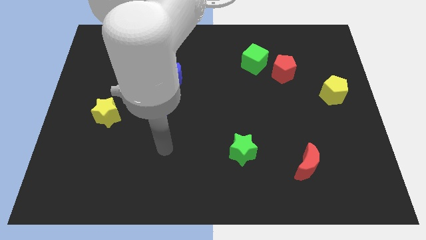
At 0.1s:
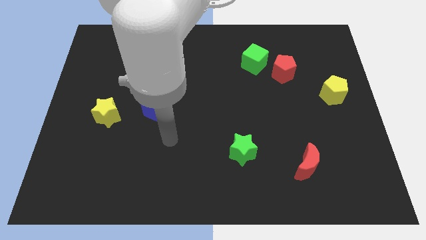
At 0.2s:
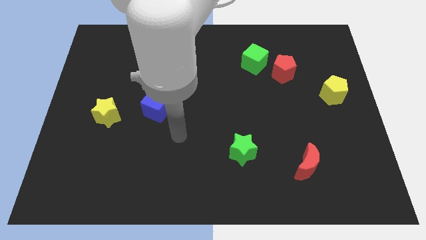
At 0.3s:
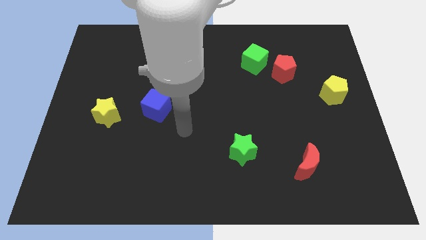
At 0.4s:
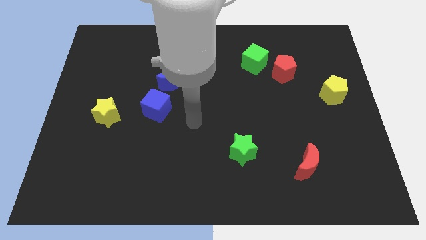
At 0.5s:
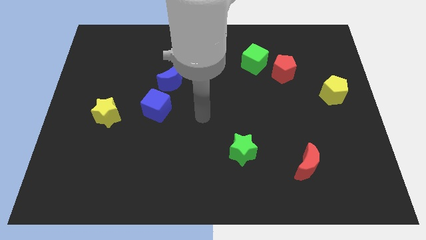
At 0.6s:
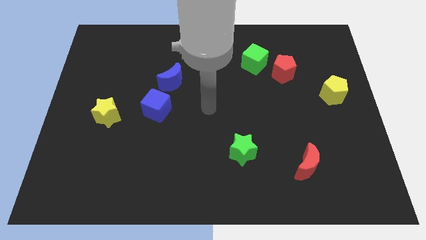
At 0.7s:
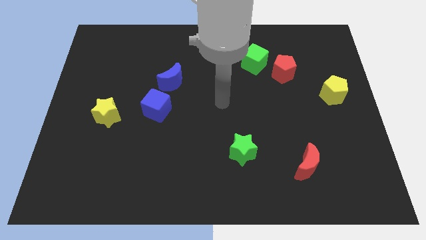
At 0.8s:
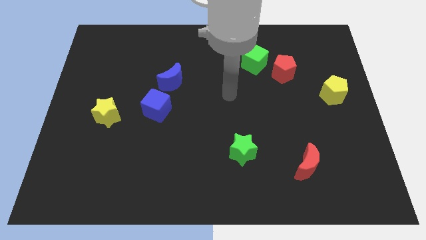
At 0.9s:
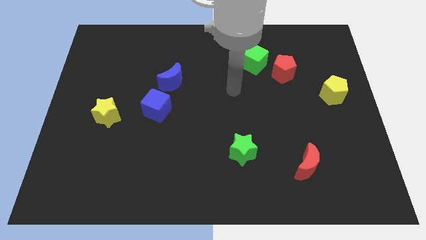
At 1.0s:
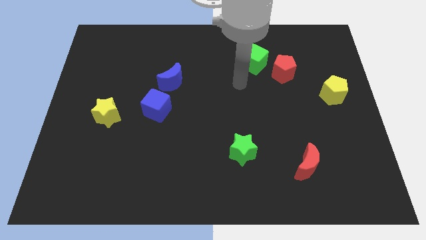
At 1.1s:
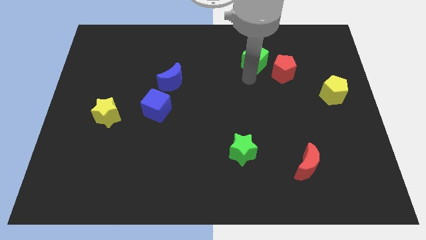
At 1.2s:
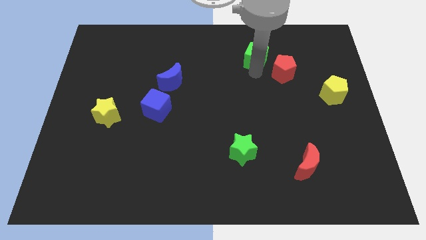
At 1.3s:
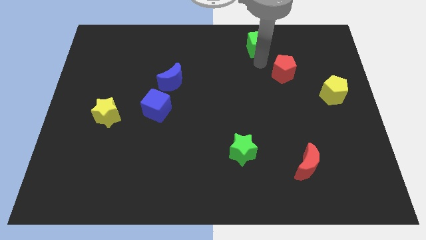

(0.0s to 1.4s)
pull the red pentagon apart from the green cube

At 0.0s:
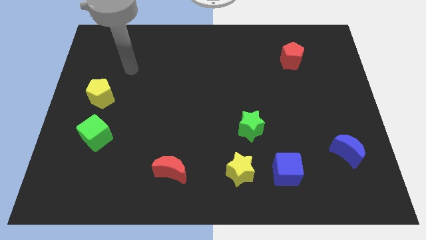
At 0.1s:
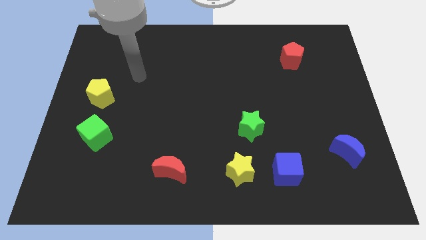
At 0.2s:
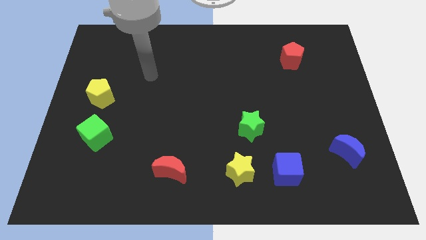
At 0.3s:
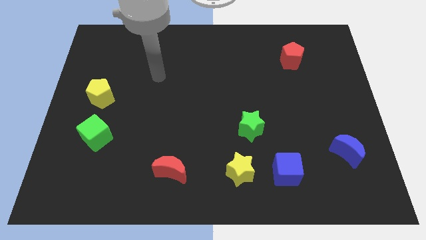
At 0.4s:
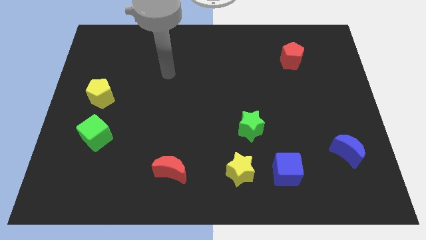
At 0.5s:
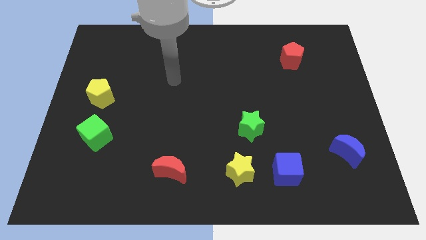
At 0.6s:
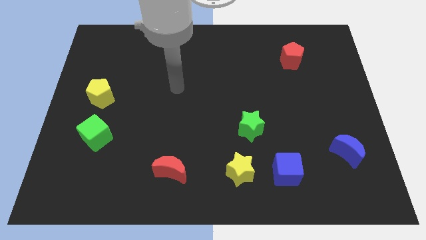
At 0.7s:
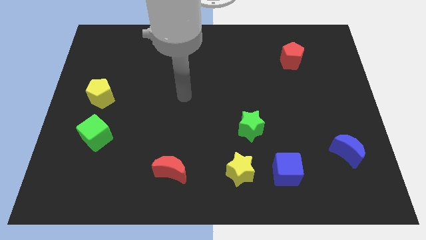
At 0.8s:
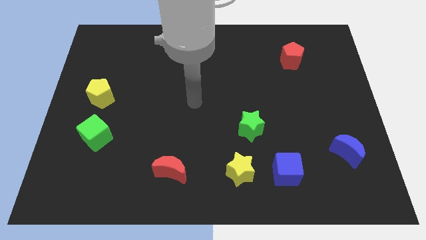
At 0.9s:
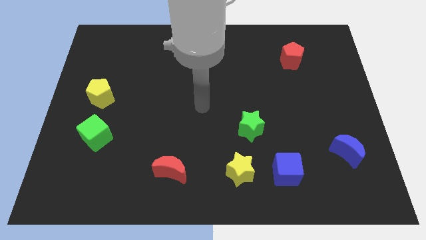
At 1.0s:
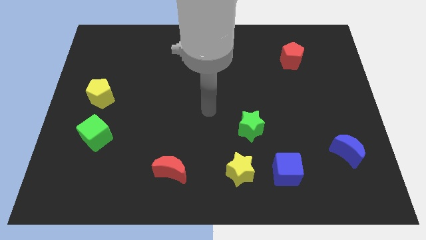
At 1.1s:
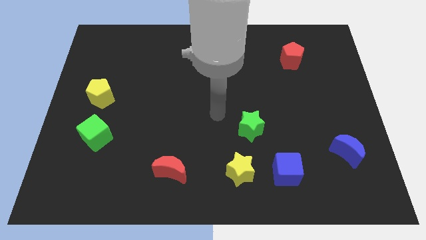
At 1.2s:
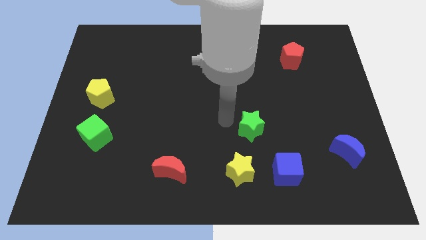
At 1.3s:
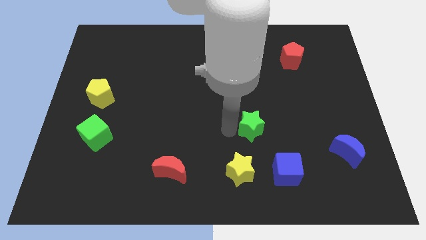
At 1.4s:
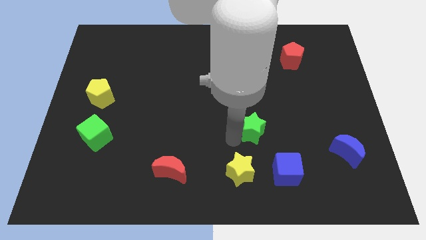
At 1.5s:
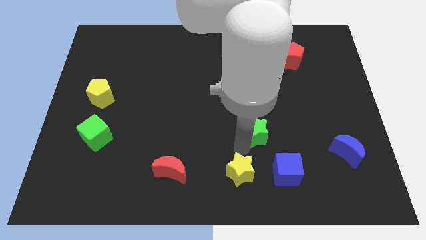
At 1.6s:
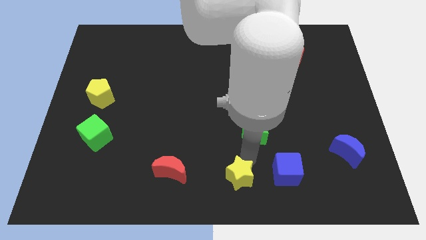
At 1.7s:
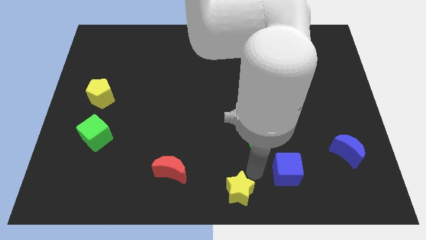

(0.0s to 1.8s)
pull the blue cube apart from the yellow star

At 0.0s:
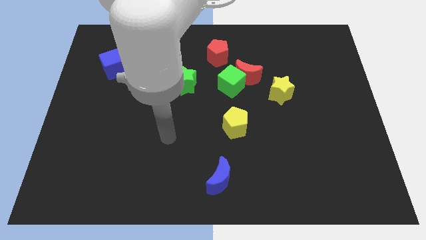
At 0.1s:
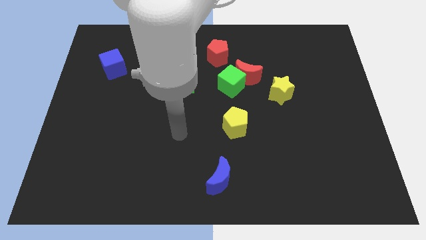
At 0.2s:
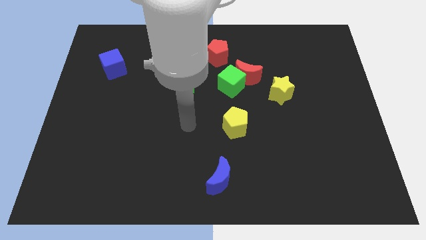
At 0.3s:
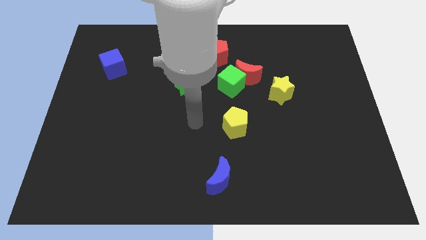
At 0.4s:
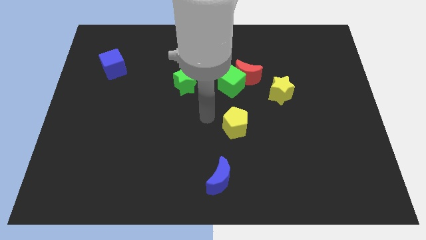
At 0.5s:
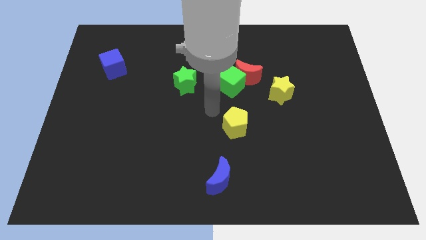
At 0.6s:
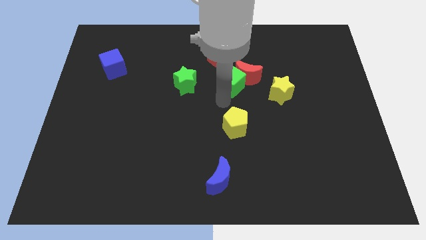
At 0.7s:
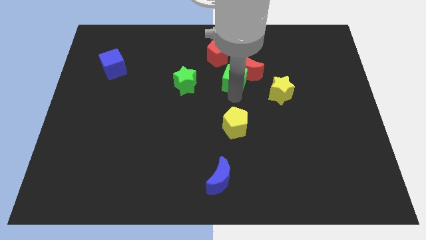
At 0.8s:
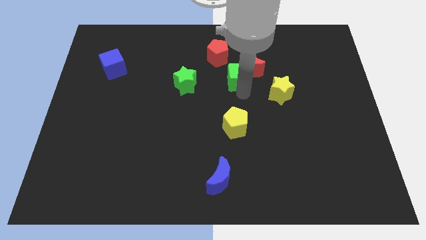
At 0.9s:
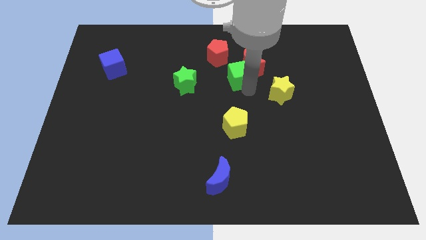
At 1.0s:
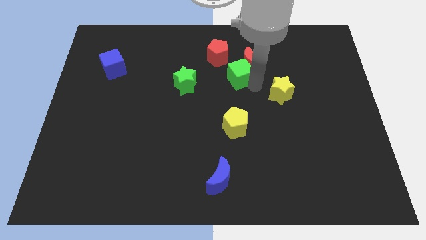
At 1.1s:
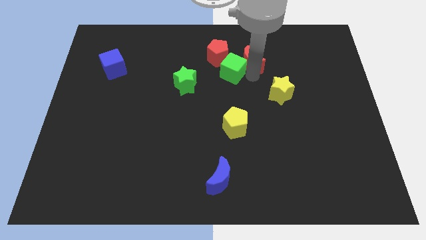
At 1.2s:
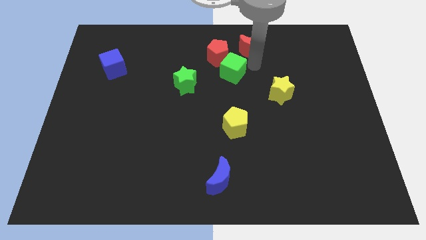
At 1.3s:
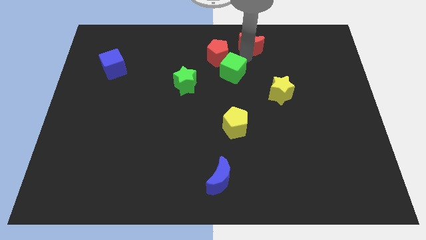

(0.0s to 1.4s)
pull the green cube apart from the red moon

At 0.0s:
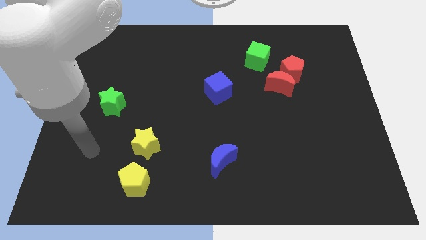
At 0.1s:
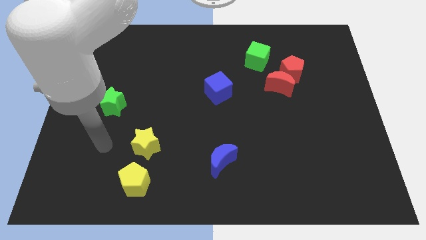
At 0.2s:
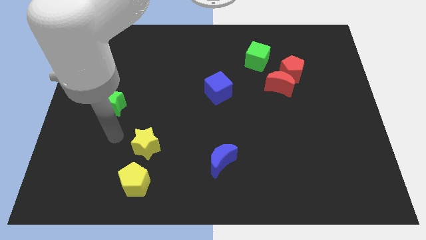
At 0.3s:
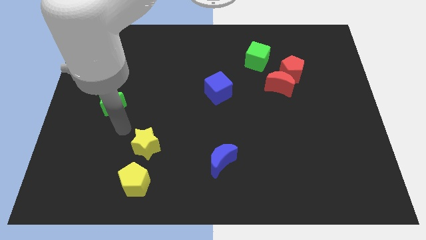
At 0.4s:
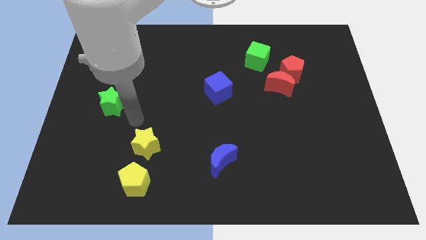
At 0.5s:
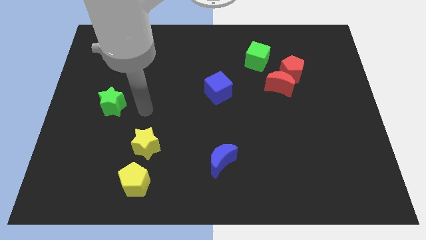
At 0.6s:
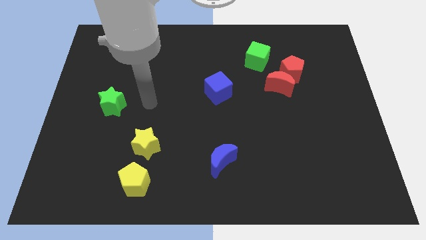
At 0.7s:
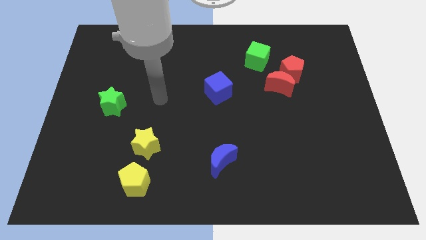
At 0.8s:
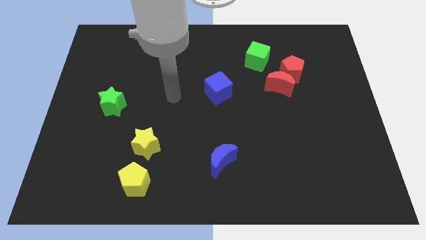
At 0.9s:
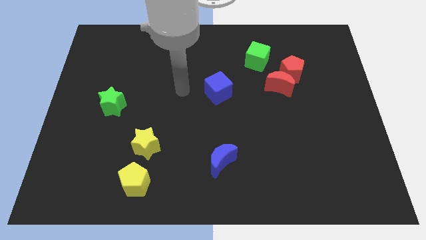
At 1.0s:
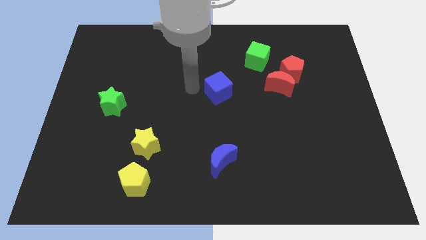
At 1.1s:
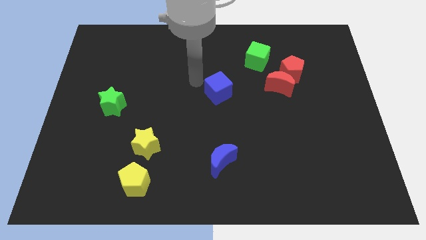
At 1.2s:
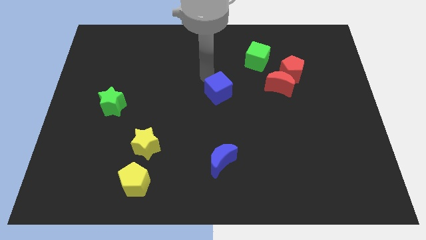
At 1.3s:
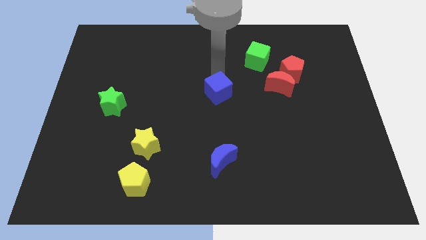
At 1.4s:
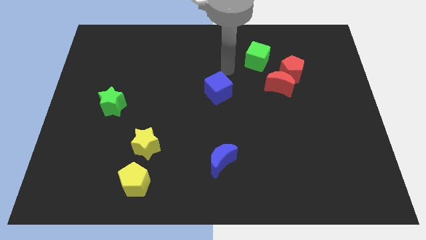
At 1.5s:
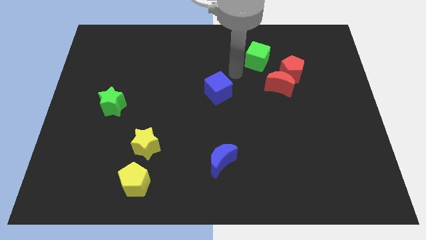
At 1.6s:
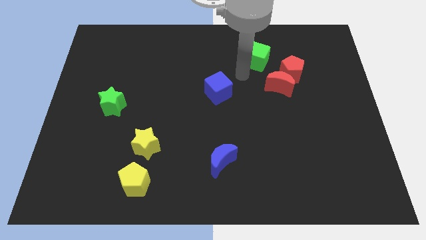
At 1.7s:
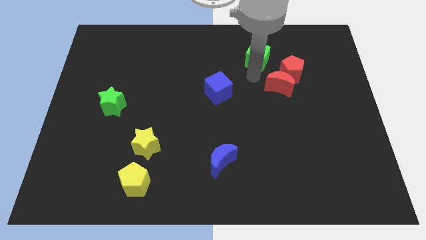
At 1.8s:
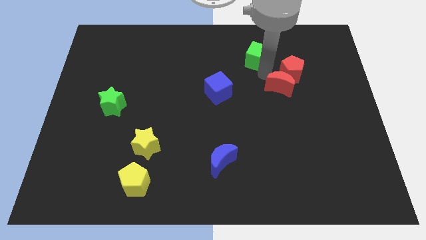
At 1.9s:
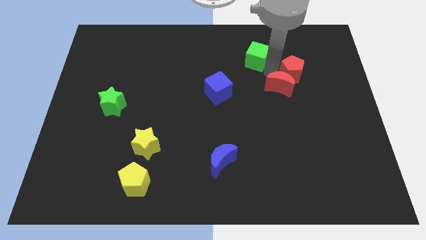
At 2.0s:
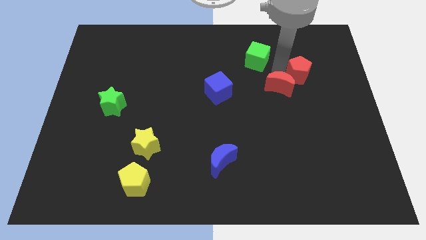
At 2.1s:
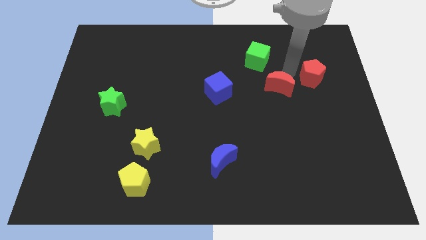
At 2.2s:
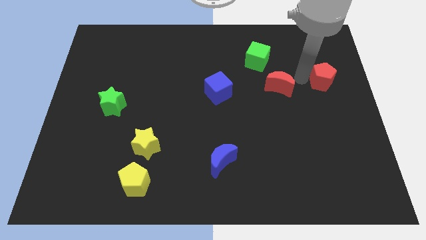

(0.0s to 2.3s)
separate the red moon from the red pentagon

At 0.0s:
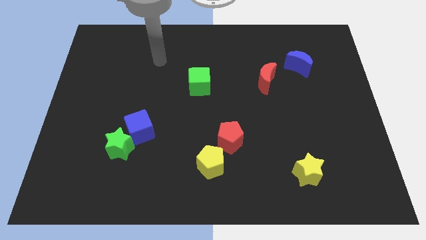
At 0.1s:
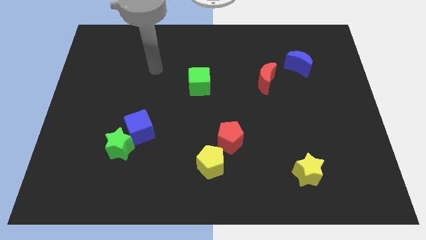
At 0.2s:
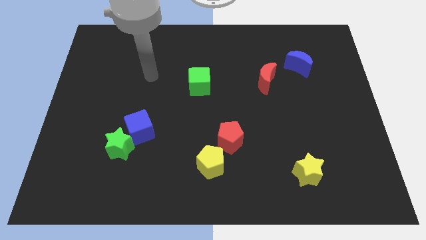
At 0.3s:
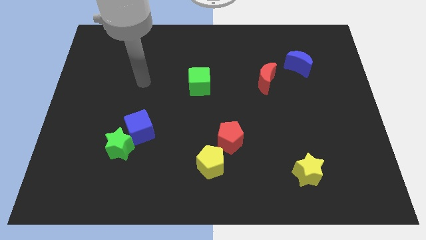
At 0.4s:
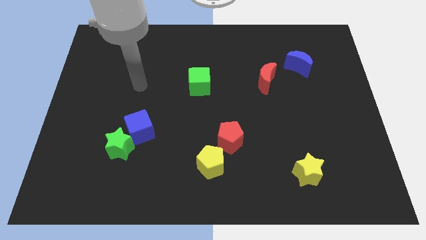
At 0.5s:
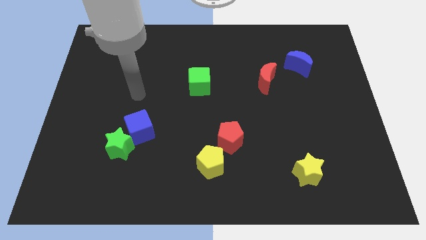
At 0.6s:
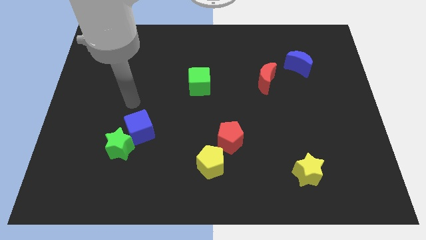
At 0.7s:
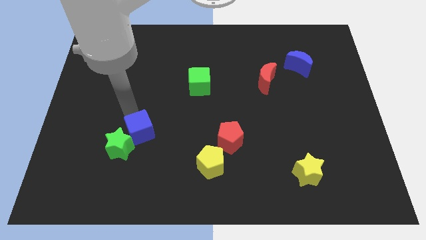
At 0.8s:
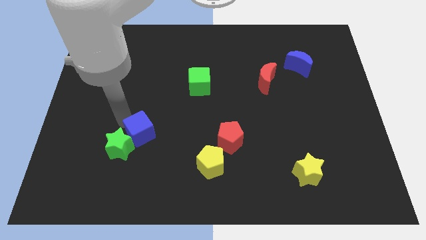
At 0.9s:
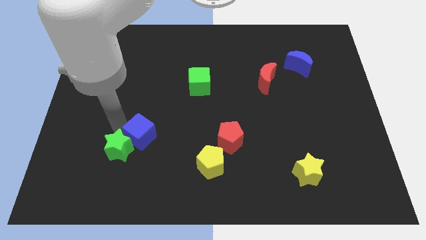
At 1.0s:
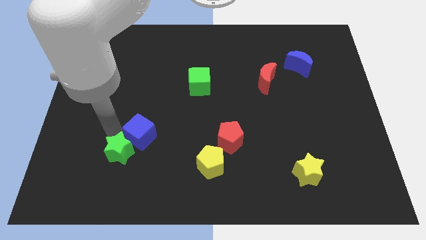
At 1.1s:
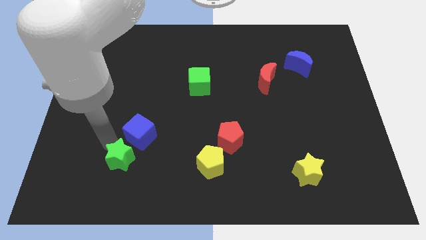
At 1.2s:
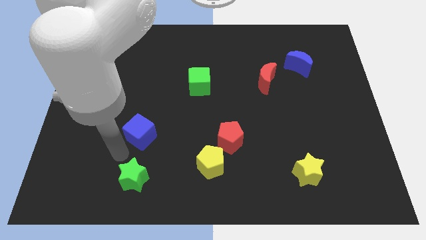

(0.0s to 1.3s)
pull the blue cube apart from the green star

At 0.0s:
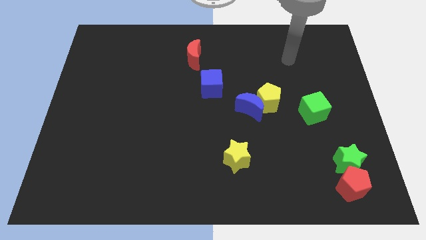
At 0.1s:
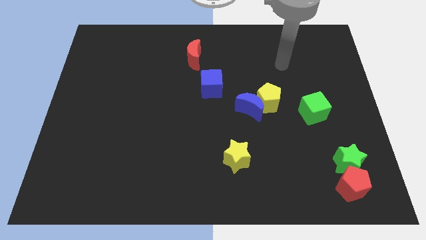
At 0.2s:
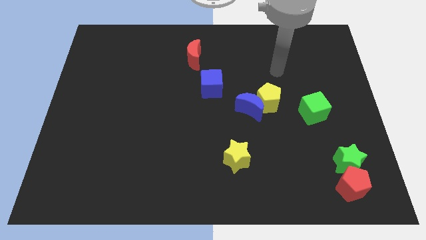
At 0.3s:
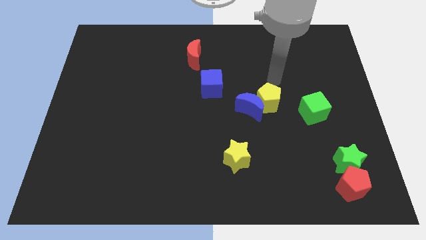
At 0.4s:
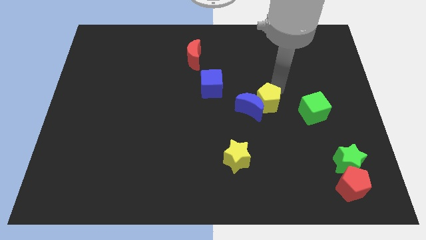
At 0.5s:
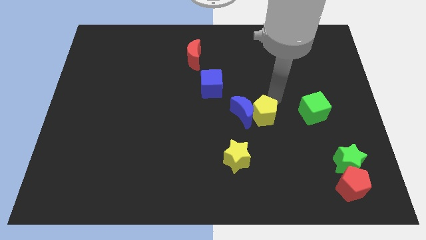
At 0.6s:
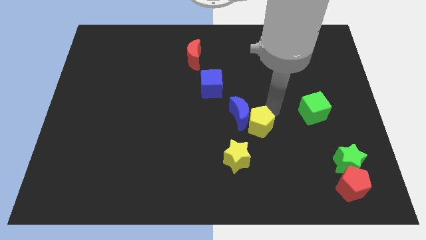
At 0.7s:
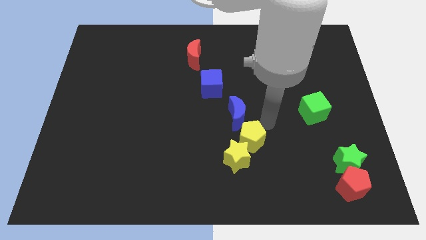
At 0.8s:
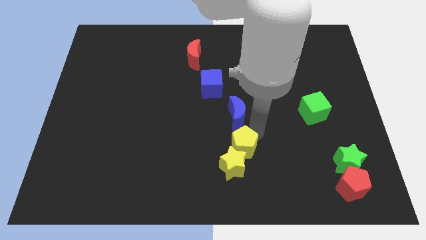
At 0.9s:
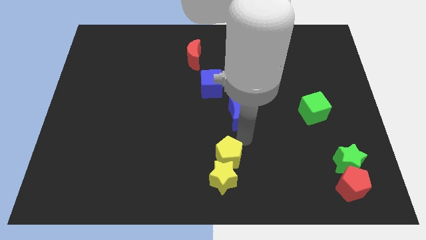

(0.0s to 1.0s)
separate the blue moon from the yellow pentagon

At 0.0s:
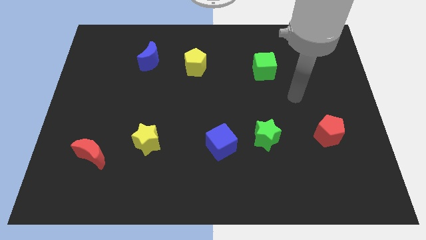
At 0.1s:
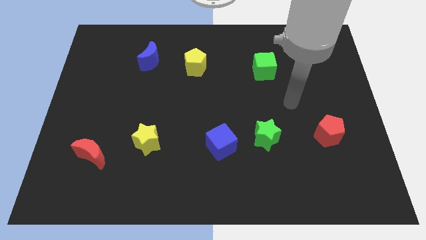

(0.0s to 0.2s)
separate the blue cube from the green star

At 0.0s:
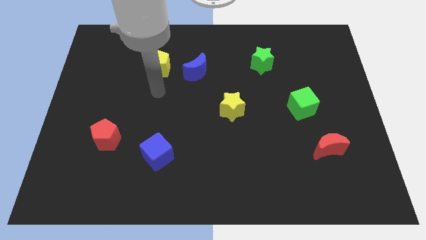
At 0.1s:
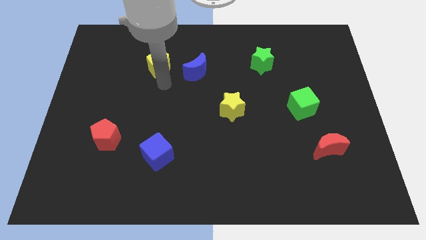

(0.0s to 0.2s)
move the blue moon away from the yellow pentagon
